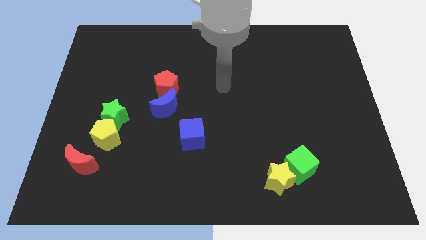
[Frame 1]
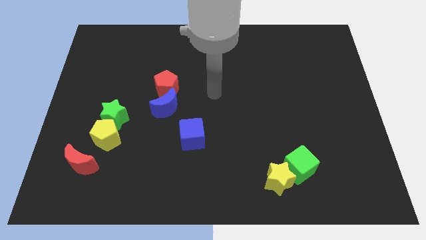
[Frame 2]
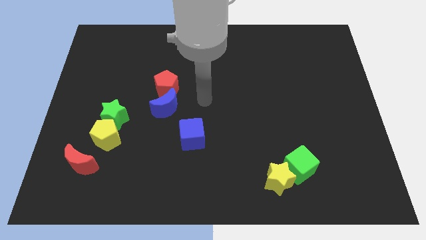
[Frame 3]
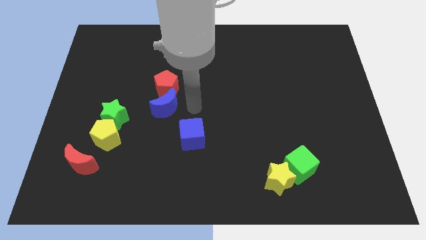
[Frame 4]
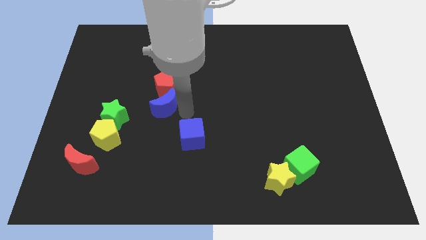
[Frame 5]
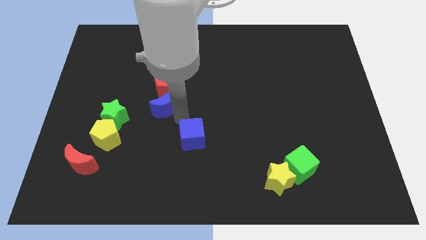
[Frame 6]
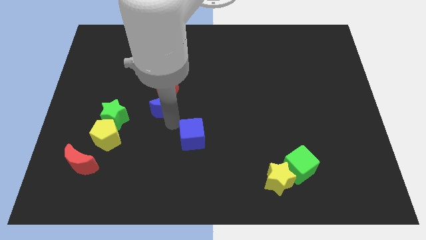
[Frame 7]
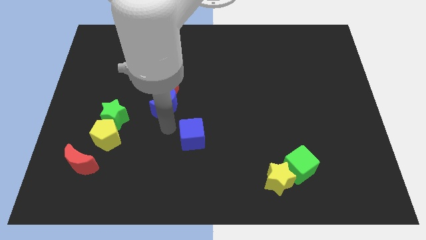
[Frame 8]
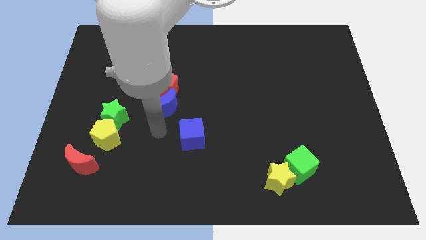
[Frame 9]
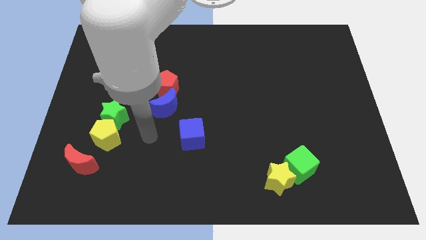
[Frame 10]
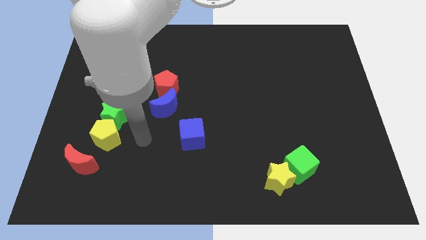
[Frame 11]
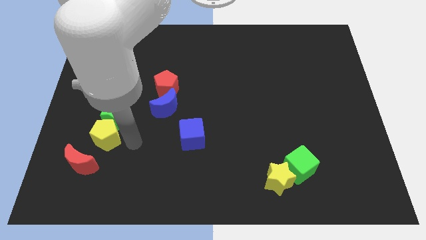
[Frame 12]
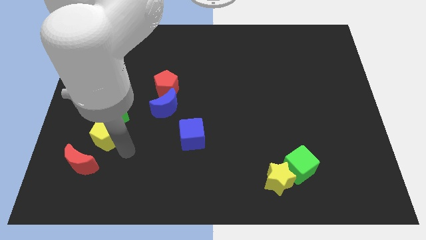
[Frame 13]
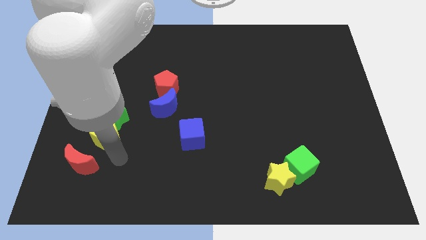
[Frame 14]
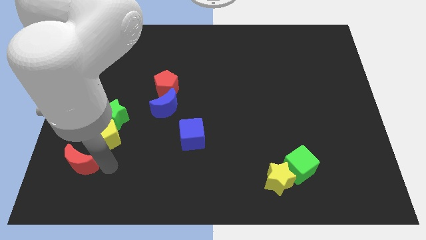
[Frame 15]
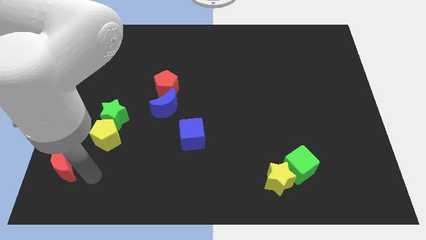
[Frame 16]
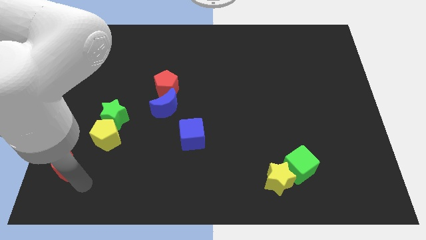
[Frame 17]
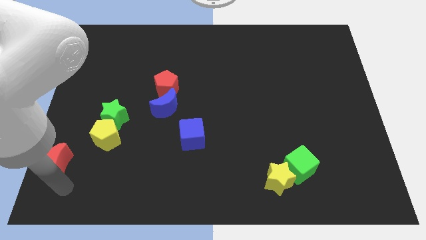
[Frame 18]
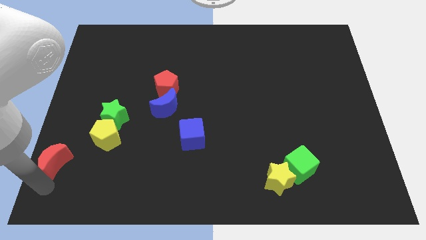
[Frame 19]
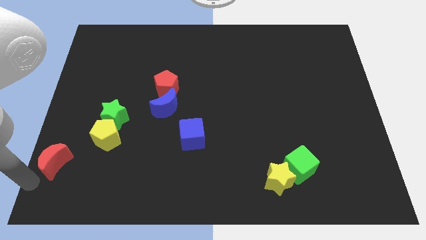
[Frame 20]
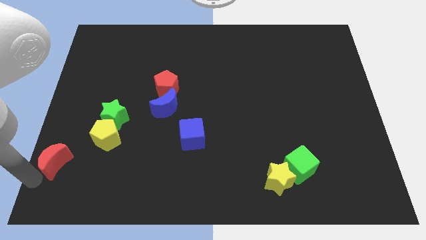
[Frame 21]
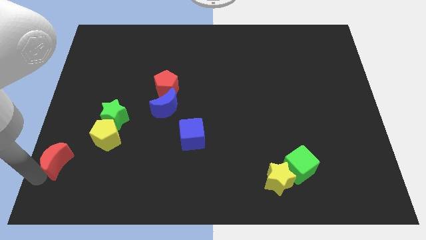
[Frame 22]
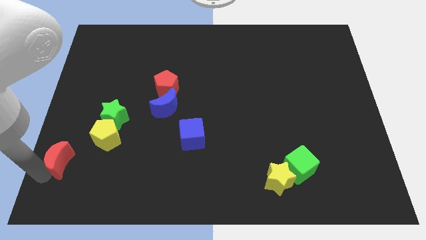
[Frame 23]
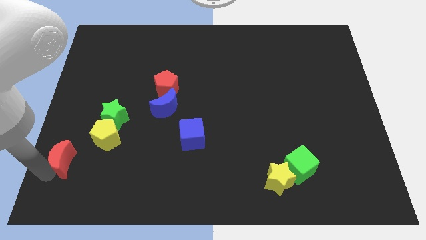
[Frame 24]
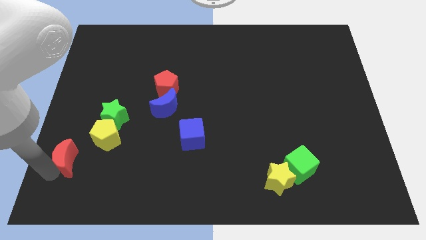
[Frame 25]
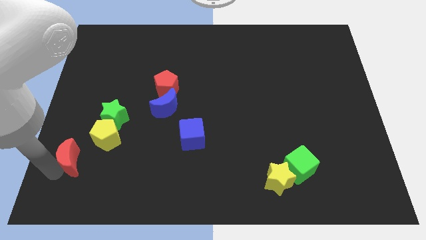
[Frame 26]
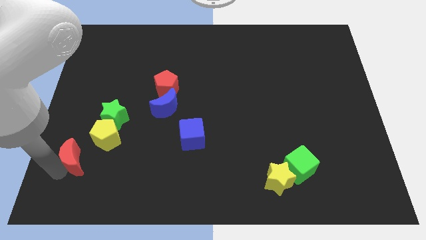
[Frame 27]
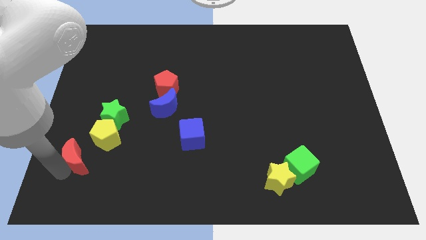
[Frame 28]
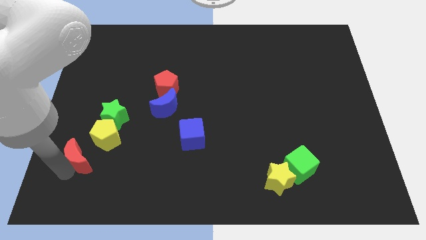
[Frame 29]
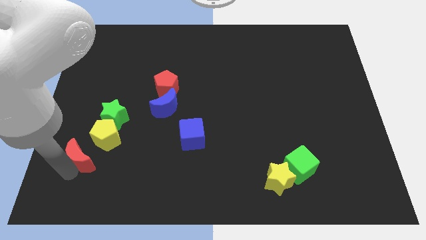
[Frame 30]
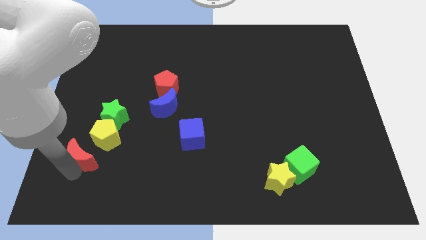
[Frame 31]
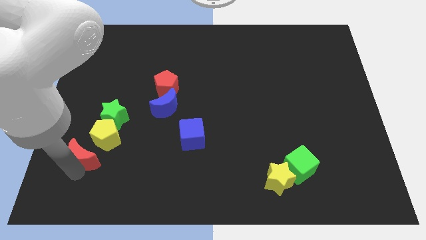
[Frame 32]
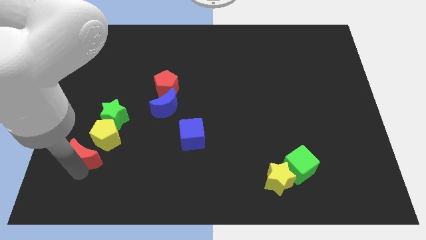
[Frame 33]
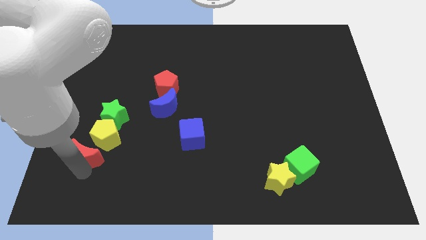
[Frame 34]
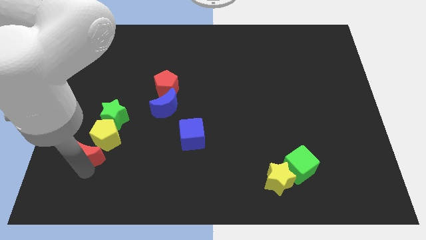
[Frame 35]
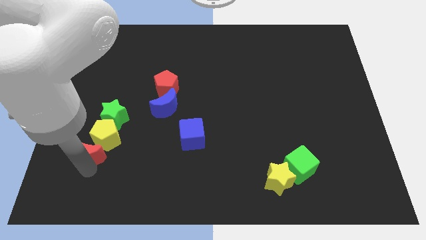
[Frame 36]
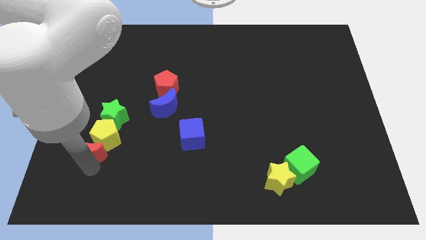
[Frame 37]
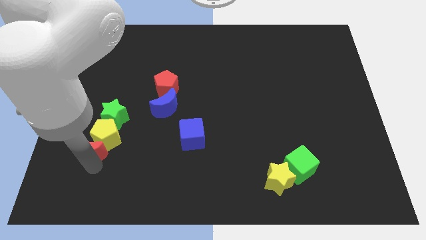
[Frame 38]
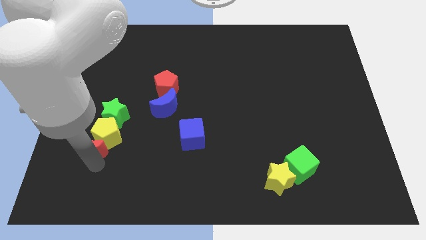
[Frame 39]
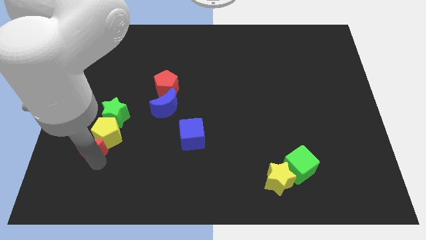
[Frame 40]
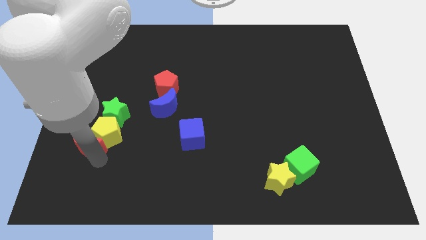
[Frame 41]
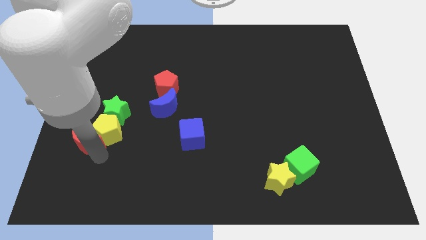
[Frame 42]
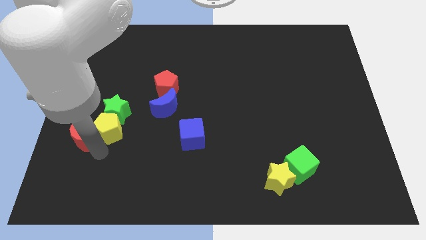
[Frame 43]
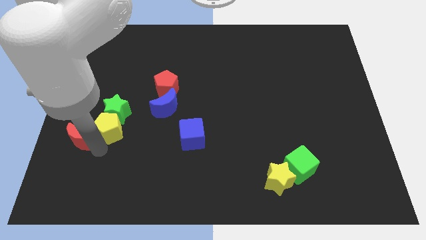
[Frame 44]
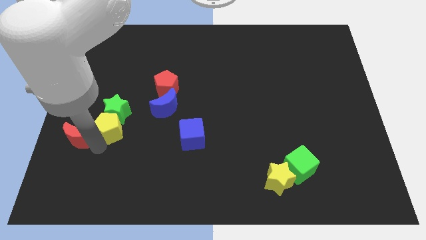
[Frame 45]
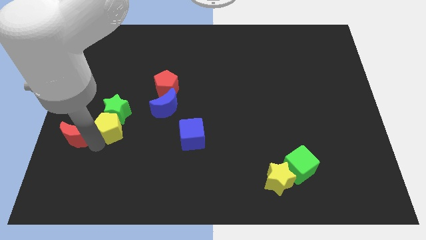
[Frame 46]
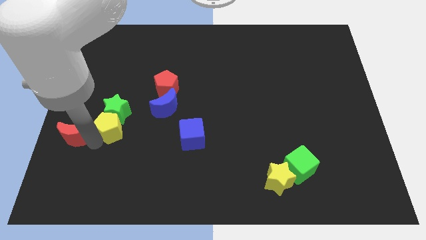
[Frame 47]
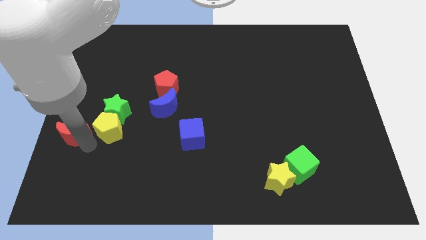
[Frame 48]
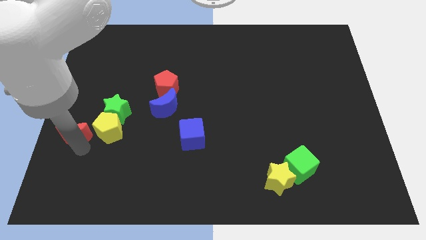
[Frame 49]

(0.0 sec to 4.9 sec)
move the red moon up a little bit

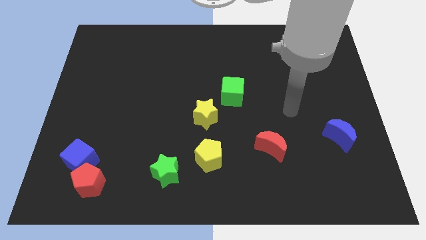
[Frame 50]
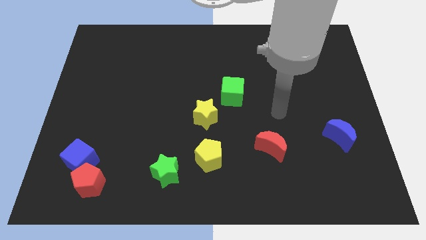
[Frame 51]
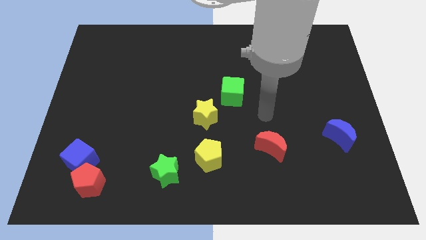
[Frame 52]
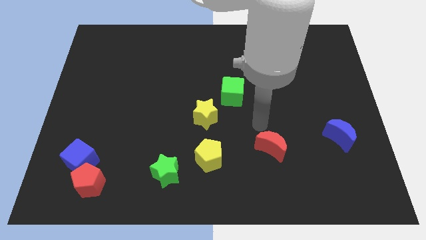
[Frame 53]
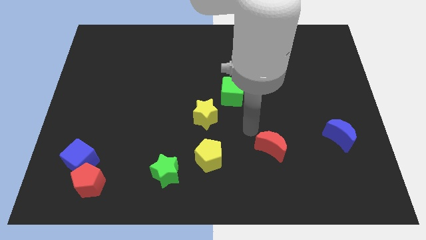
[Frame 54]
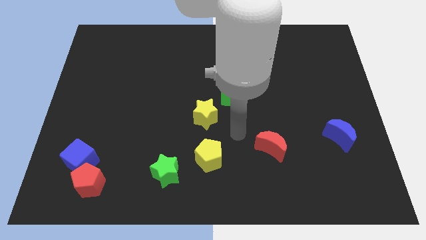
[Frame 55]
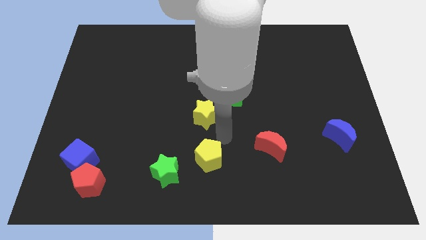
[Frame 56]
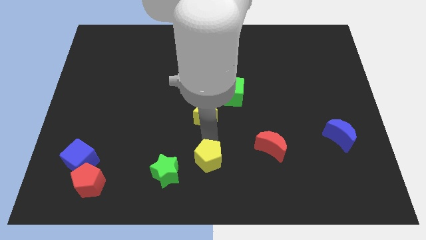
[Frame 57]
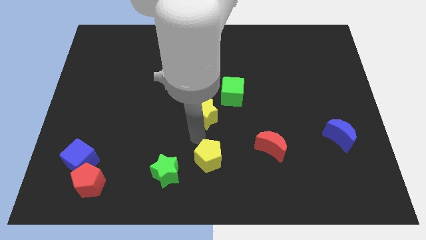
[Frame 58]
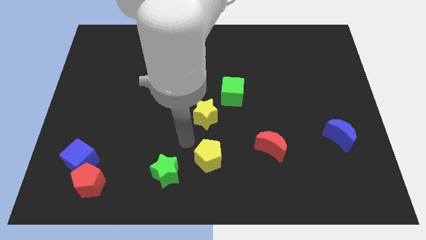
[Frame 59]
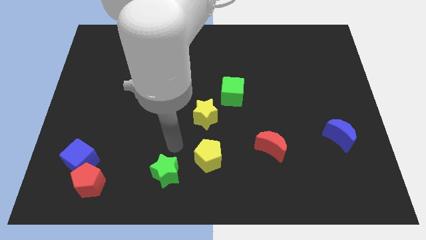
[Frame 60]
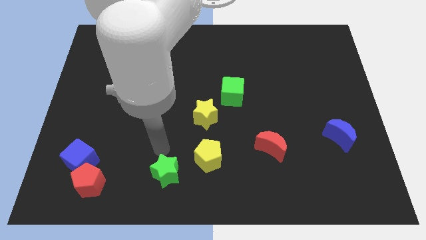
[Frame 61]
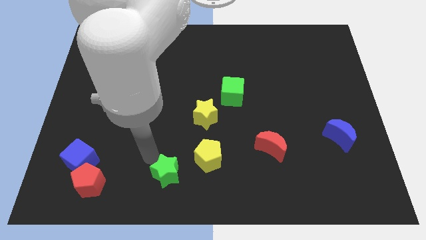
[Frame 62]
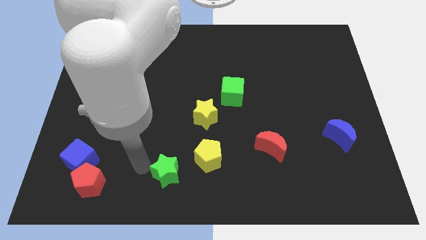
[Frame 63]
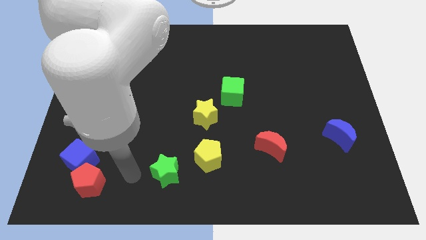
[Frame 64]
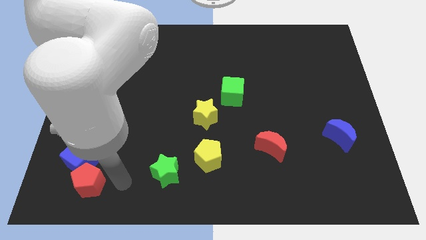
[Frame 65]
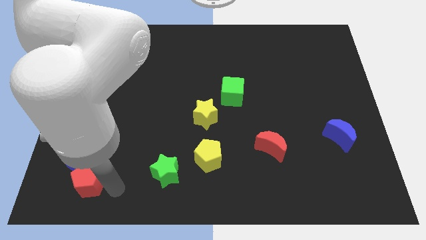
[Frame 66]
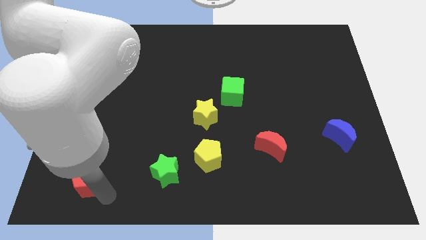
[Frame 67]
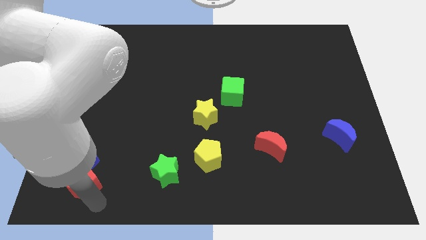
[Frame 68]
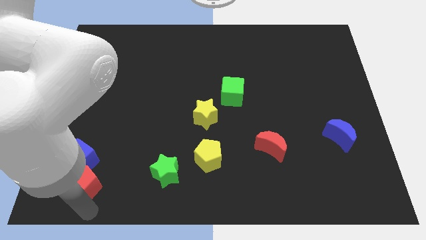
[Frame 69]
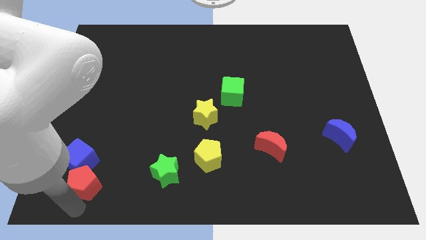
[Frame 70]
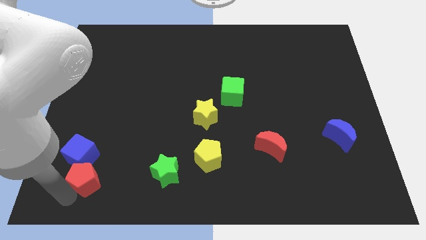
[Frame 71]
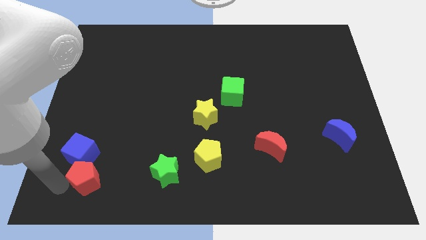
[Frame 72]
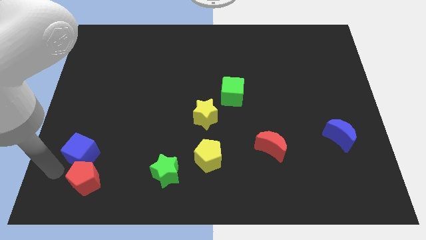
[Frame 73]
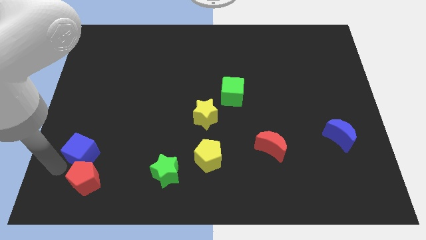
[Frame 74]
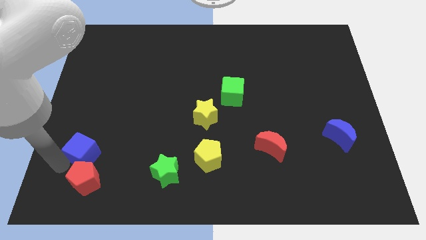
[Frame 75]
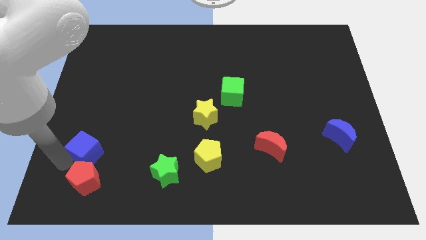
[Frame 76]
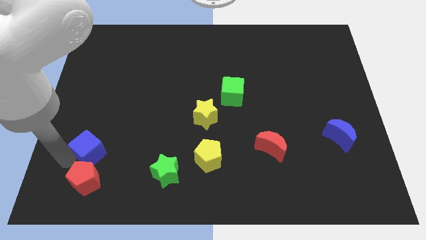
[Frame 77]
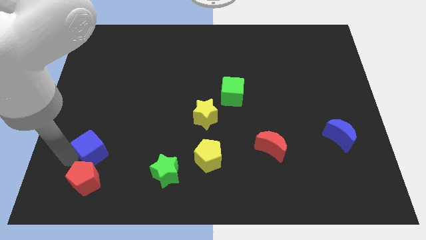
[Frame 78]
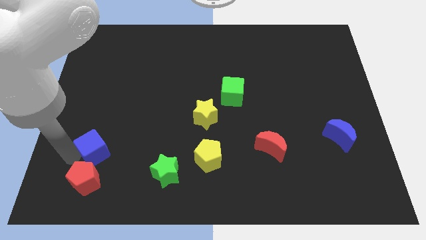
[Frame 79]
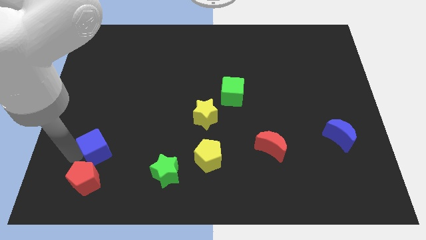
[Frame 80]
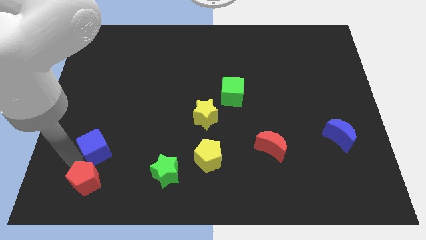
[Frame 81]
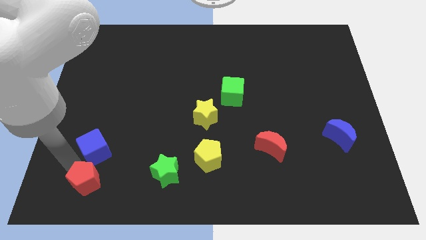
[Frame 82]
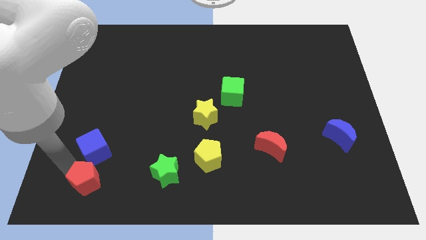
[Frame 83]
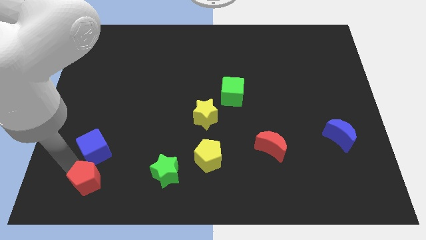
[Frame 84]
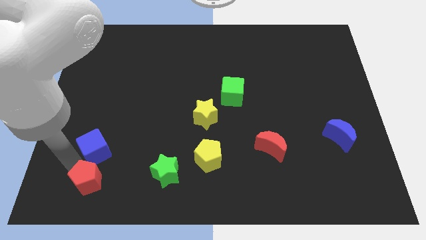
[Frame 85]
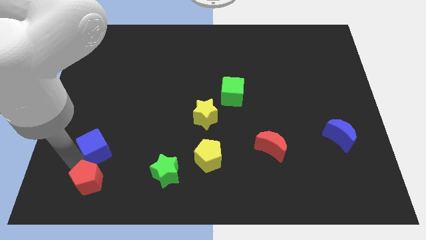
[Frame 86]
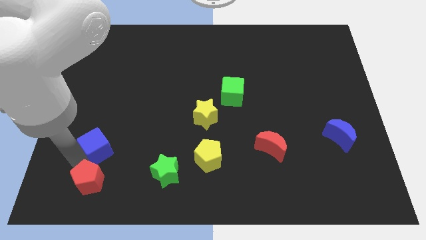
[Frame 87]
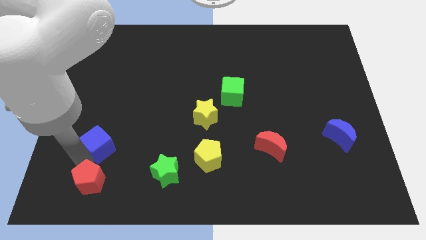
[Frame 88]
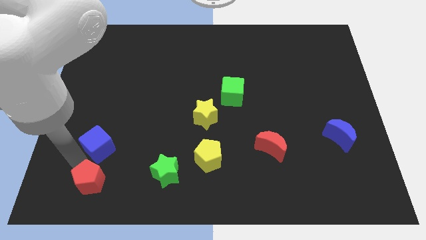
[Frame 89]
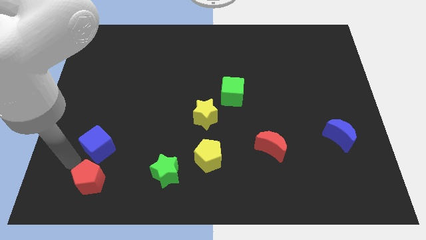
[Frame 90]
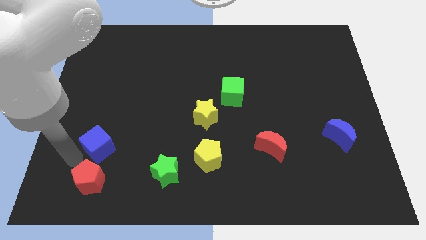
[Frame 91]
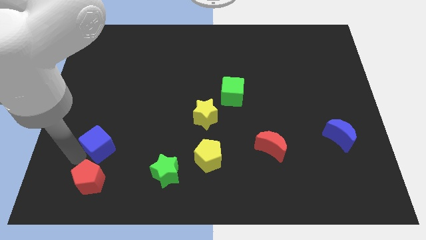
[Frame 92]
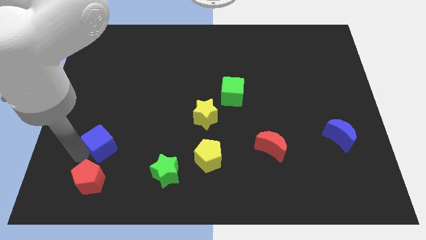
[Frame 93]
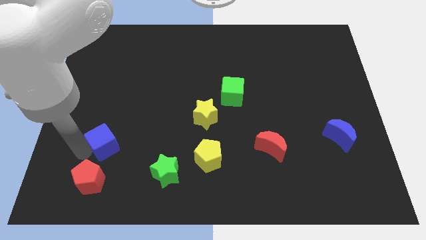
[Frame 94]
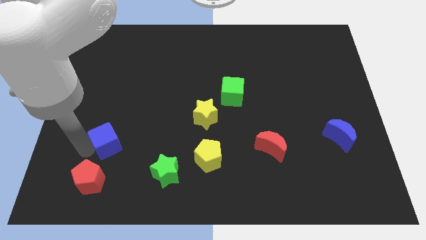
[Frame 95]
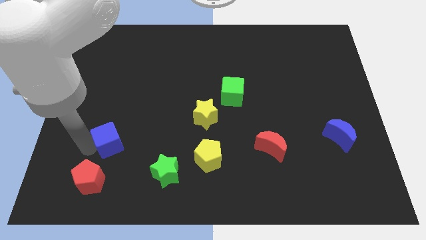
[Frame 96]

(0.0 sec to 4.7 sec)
push the blue cube a bit upwards and to the right
